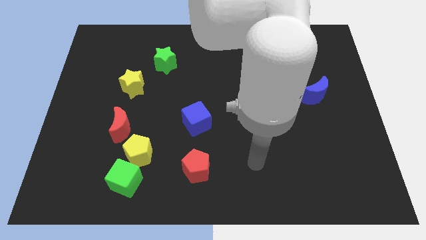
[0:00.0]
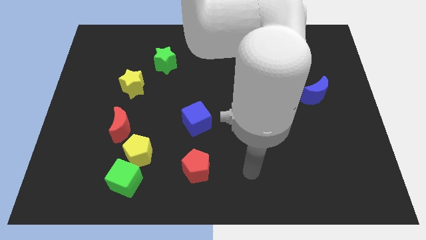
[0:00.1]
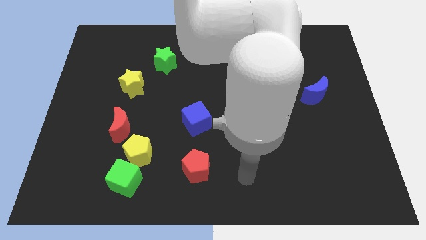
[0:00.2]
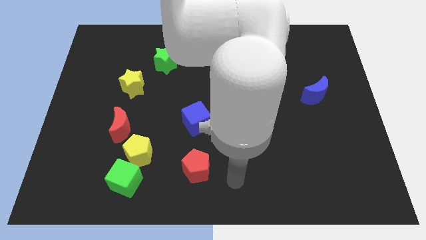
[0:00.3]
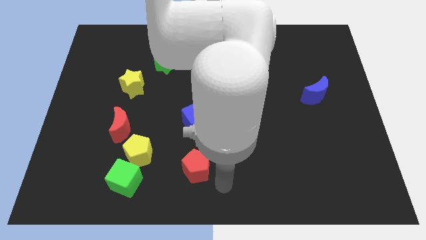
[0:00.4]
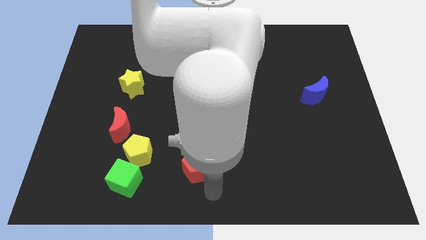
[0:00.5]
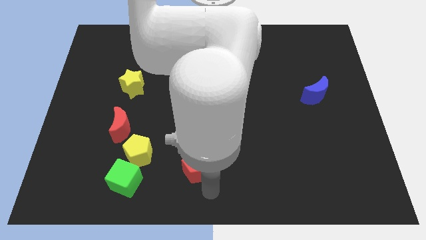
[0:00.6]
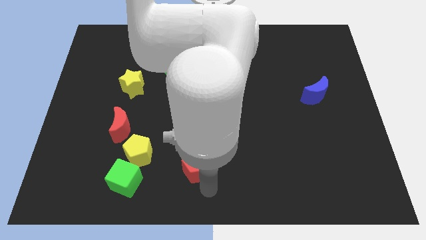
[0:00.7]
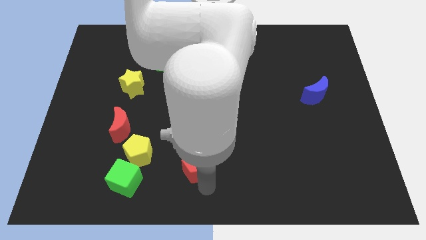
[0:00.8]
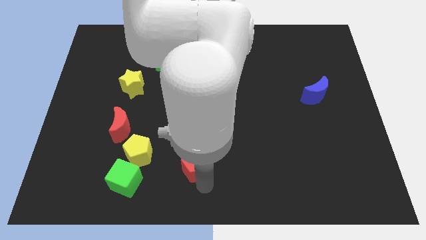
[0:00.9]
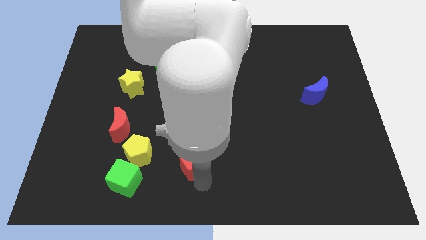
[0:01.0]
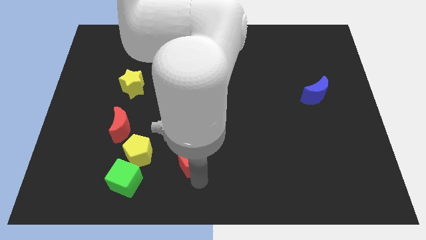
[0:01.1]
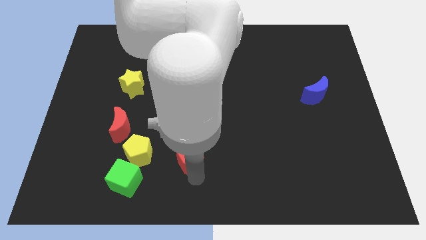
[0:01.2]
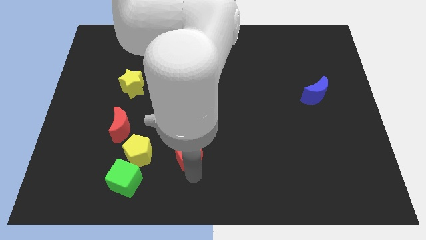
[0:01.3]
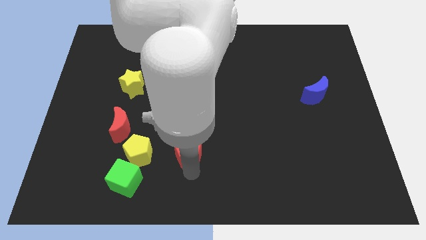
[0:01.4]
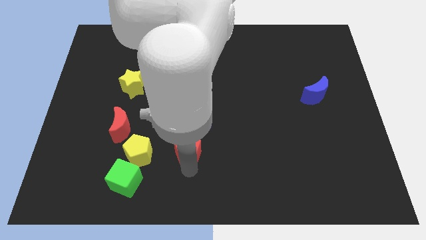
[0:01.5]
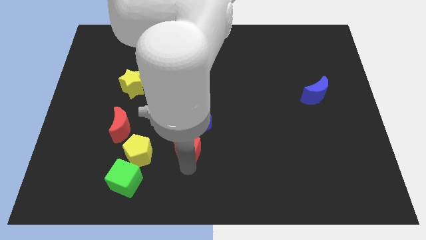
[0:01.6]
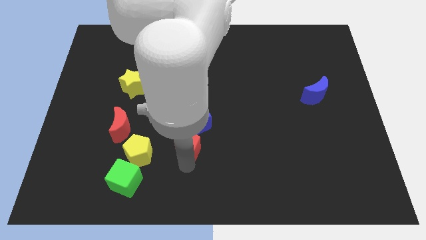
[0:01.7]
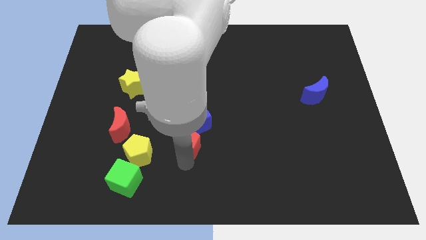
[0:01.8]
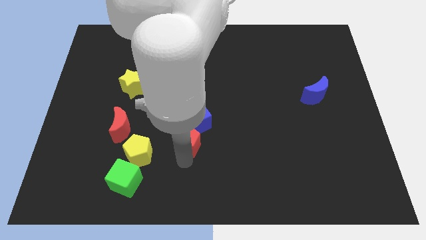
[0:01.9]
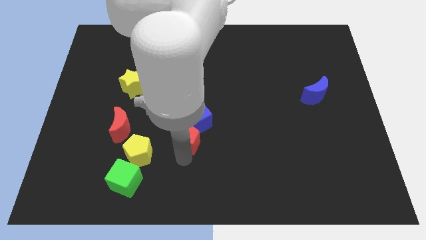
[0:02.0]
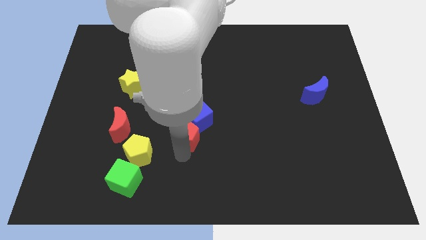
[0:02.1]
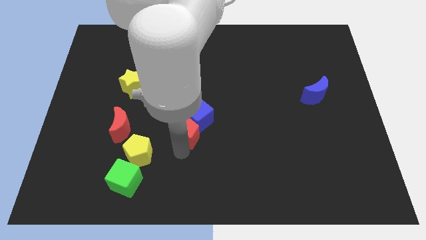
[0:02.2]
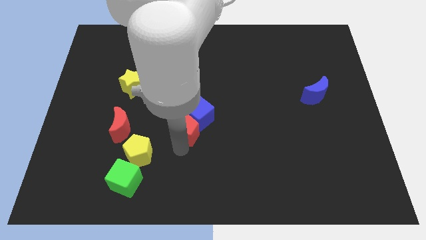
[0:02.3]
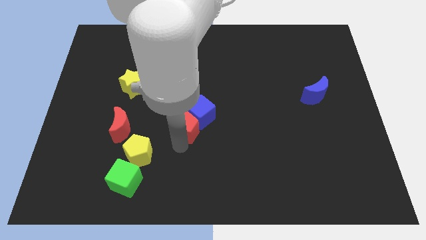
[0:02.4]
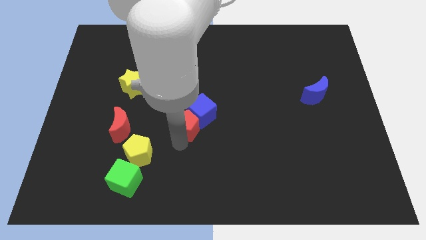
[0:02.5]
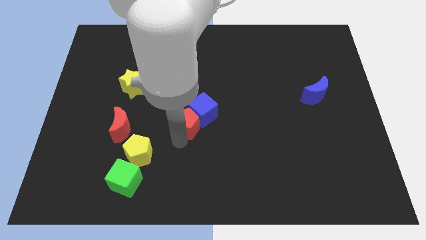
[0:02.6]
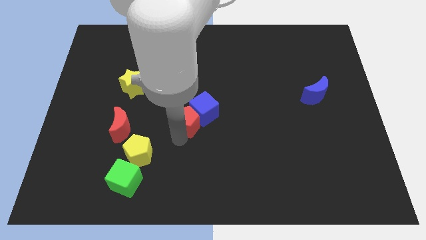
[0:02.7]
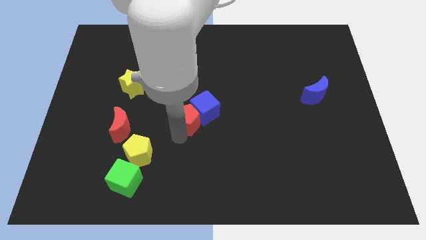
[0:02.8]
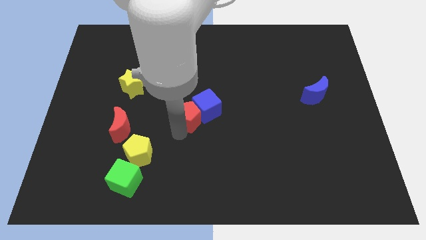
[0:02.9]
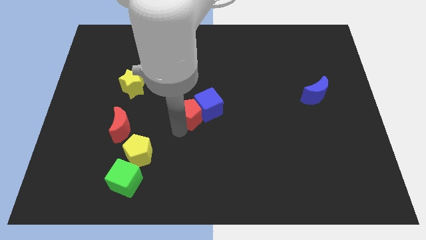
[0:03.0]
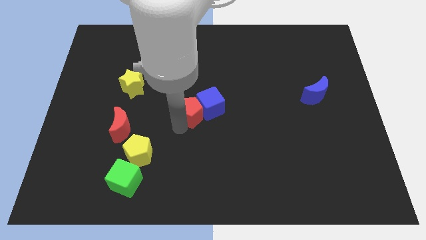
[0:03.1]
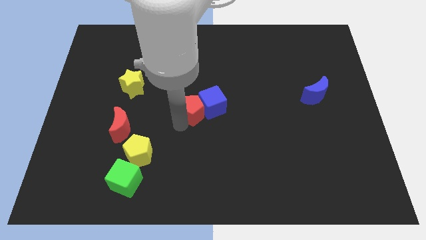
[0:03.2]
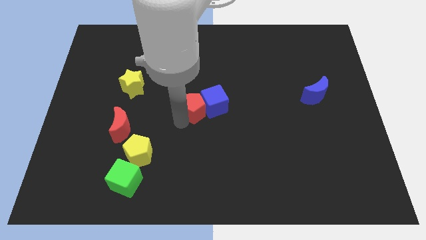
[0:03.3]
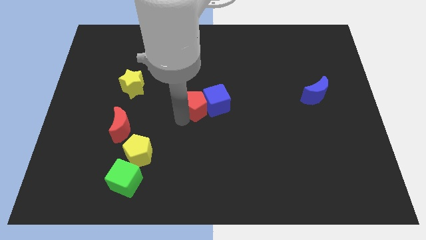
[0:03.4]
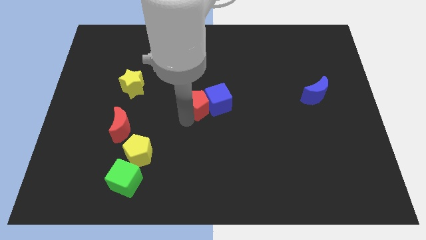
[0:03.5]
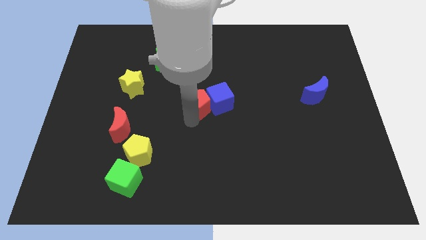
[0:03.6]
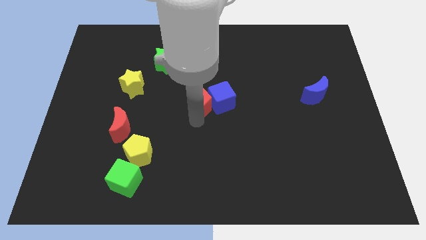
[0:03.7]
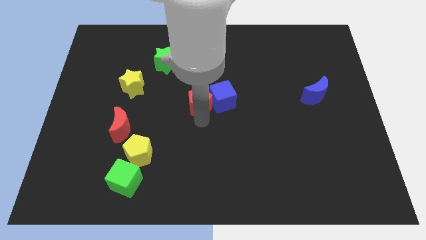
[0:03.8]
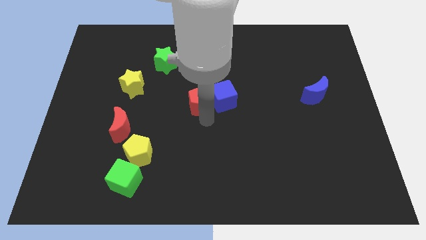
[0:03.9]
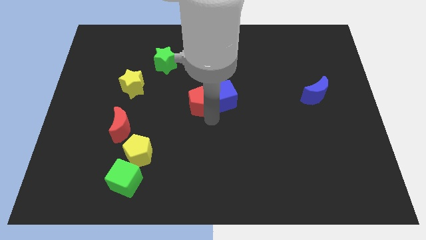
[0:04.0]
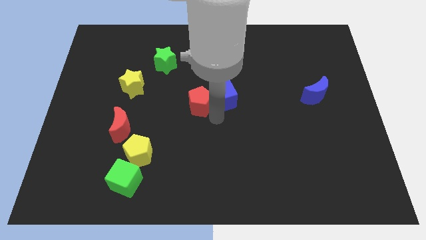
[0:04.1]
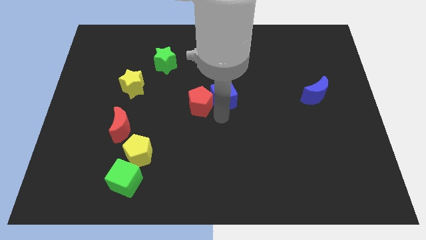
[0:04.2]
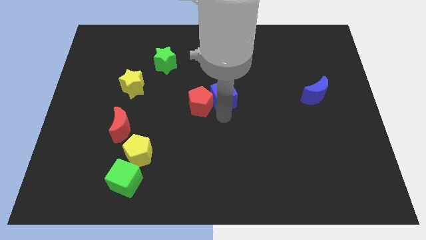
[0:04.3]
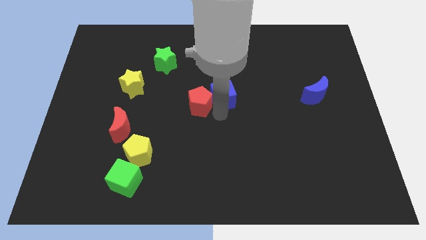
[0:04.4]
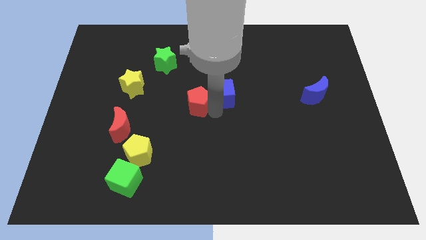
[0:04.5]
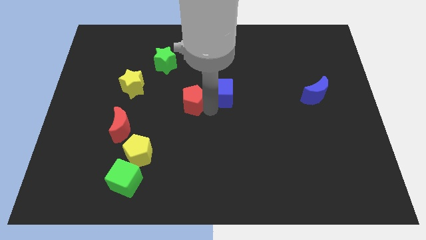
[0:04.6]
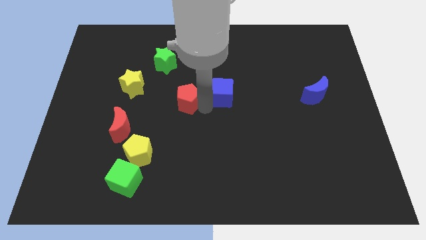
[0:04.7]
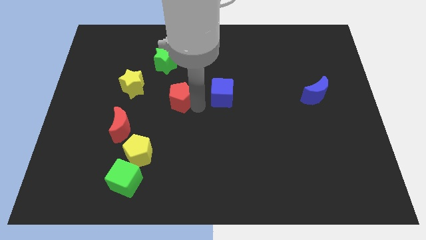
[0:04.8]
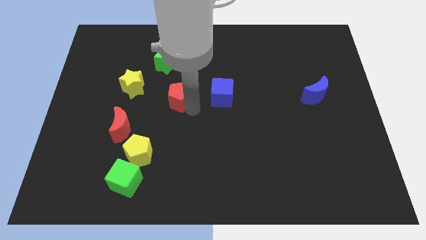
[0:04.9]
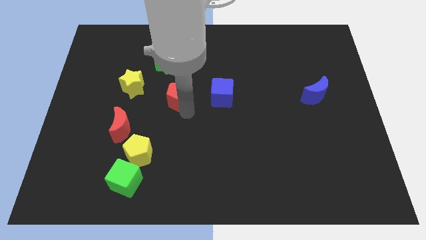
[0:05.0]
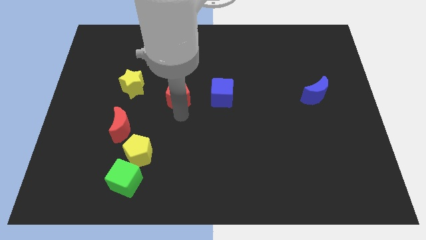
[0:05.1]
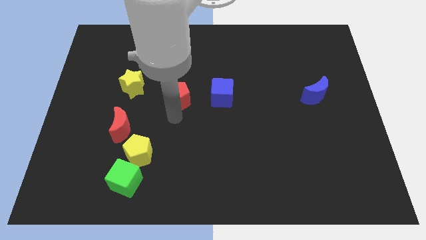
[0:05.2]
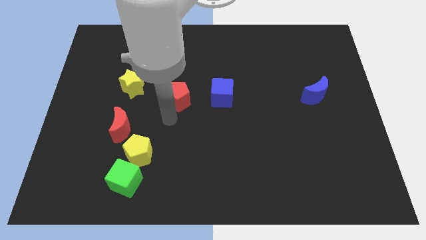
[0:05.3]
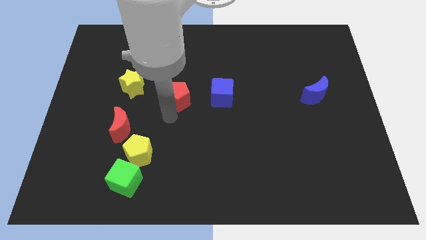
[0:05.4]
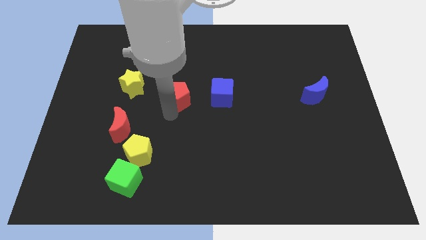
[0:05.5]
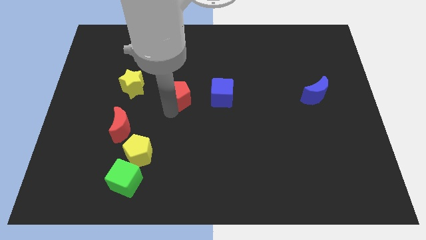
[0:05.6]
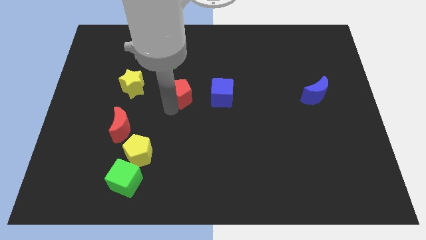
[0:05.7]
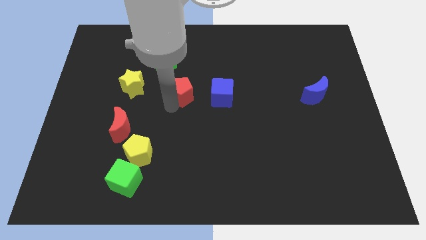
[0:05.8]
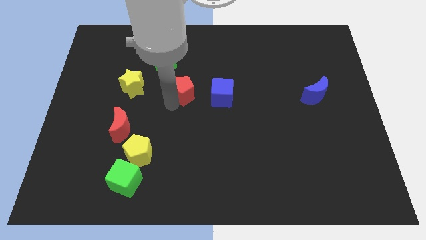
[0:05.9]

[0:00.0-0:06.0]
move the red pentagon upwards

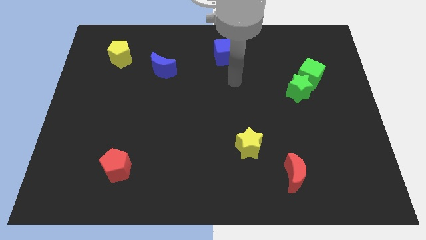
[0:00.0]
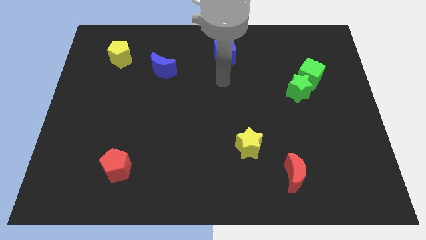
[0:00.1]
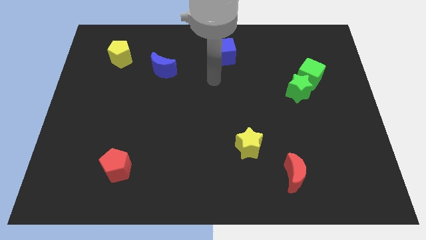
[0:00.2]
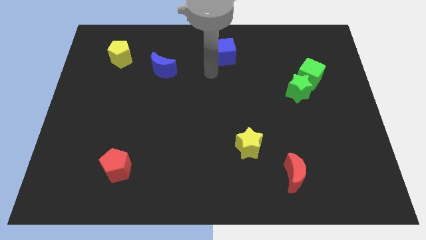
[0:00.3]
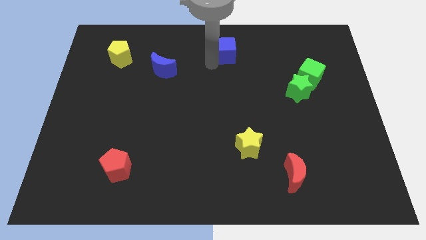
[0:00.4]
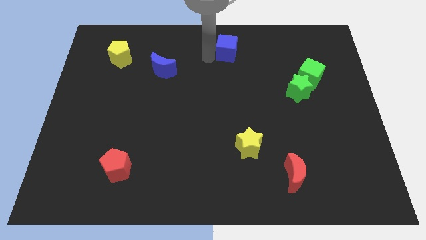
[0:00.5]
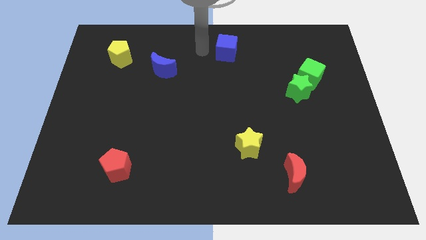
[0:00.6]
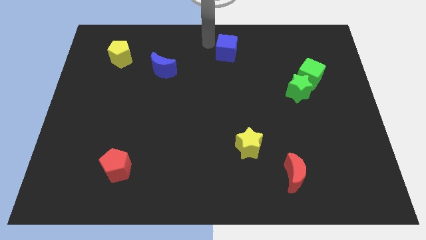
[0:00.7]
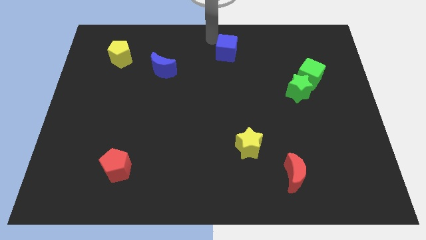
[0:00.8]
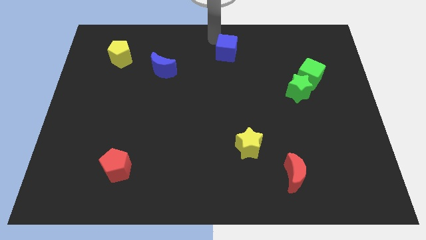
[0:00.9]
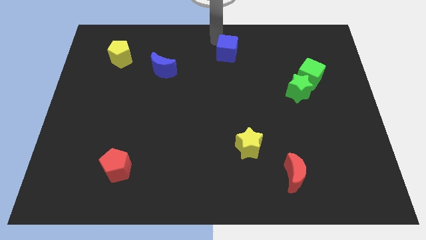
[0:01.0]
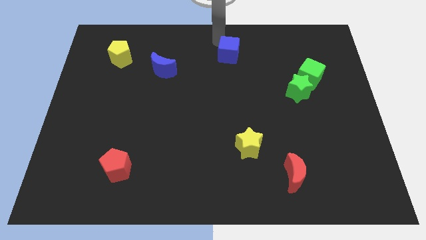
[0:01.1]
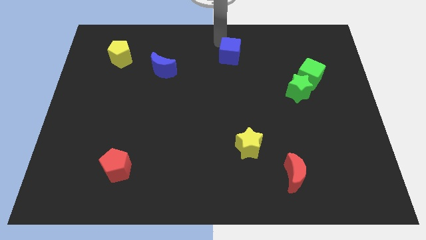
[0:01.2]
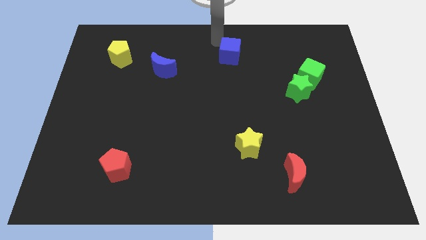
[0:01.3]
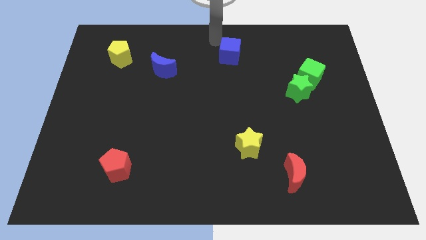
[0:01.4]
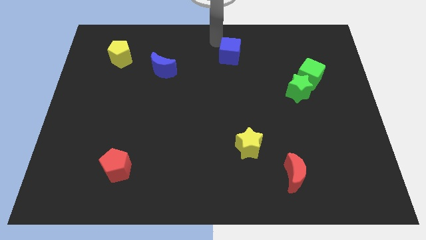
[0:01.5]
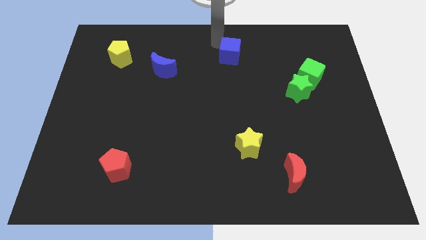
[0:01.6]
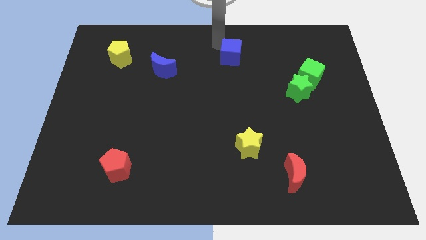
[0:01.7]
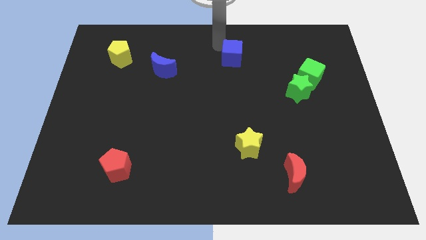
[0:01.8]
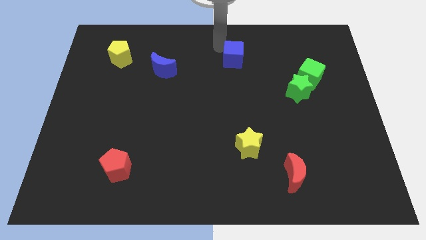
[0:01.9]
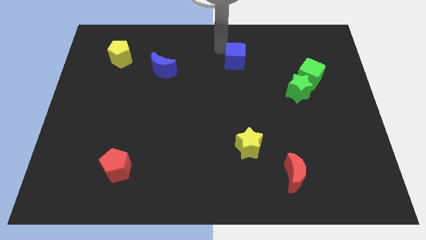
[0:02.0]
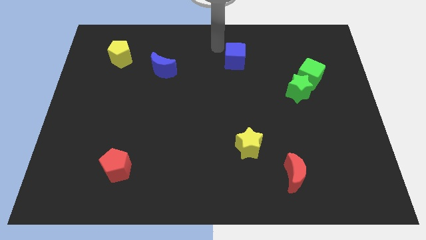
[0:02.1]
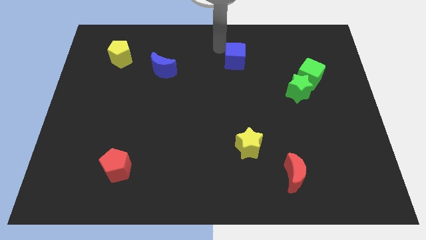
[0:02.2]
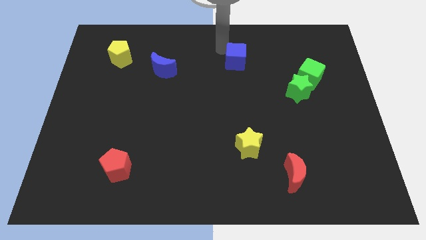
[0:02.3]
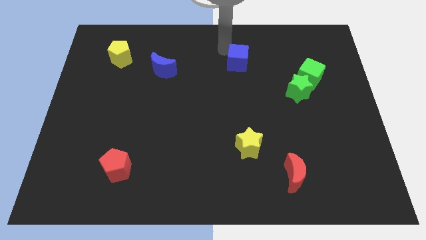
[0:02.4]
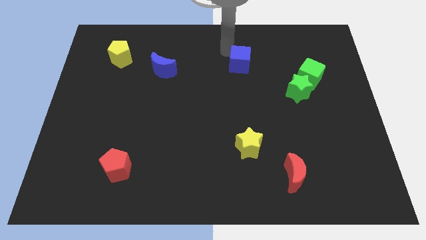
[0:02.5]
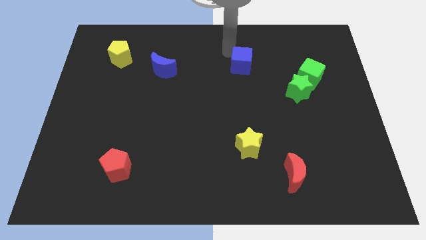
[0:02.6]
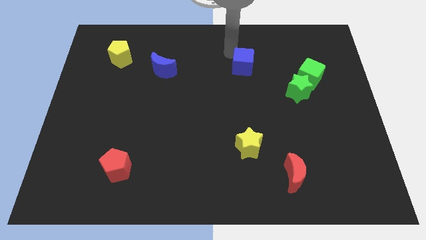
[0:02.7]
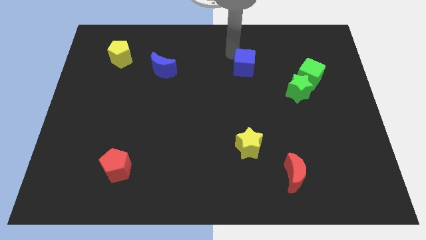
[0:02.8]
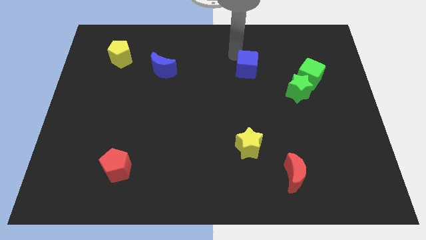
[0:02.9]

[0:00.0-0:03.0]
slide the blue cube slightly diagonally downwards and to the right
